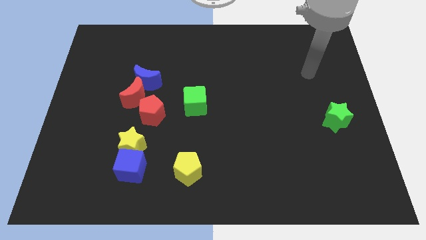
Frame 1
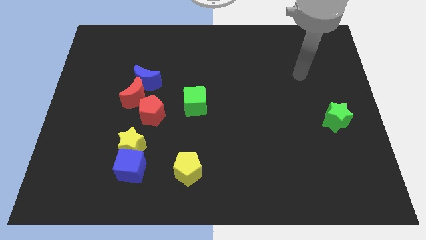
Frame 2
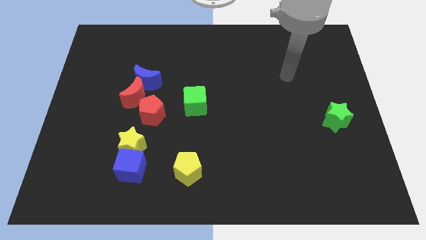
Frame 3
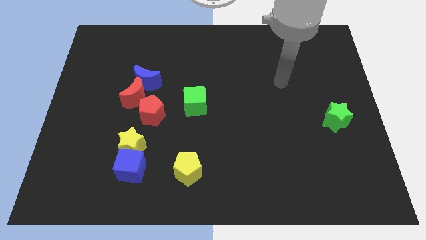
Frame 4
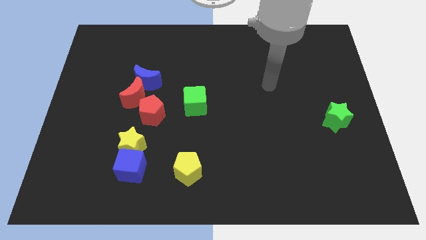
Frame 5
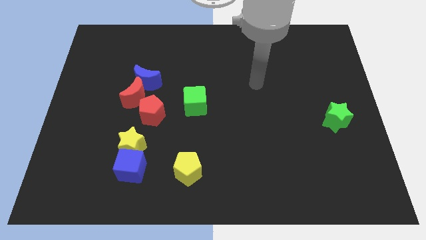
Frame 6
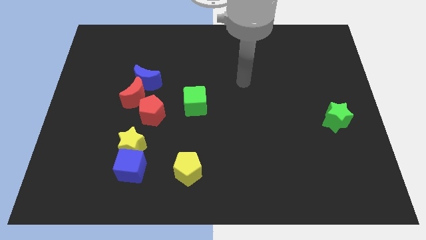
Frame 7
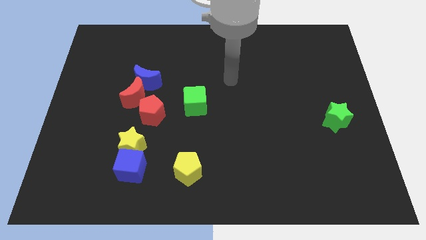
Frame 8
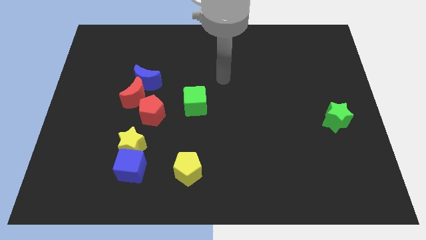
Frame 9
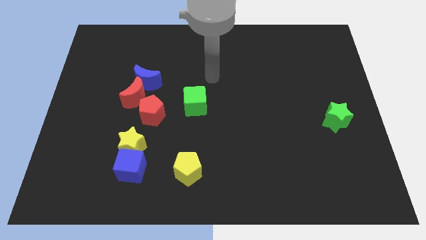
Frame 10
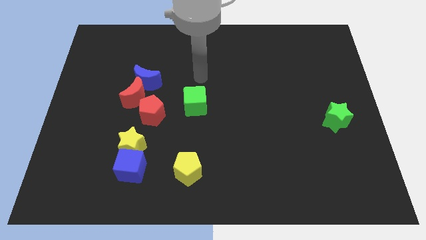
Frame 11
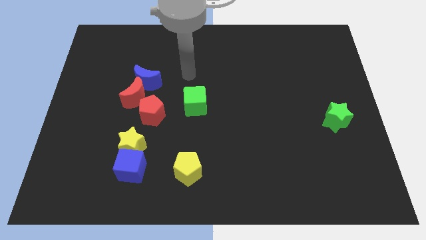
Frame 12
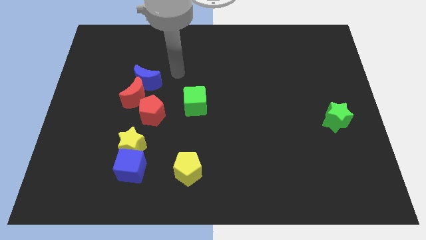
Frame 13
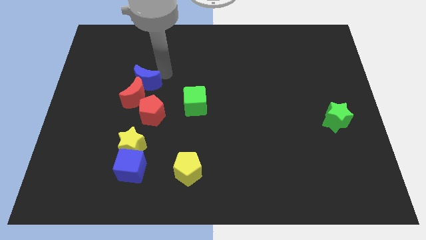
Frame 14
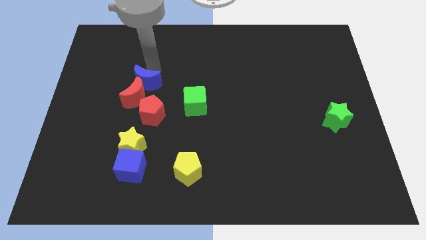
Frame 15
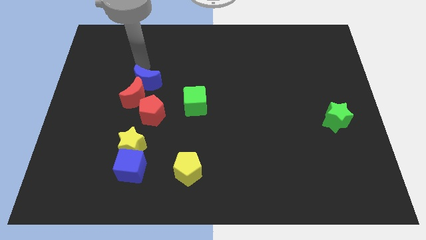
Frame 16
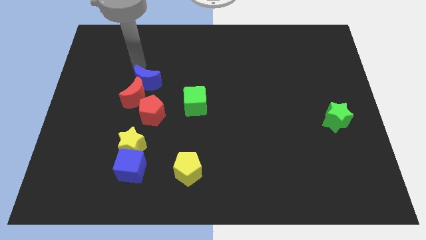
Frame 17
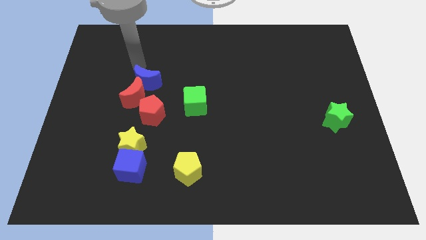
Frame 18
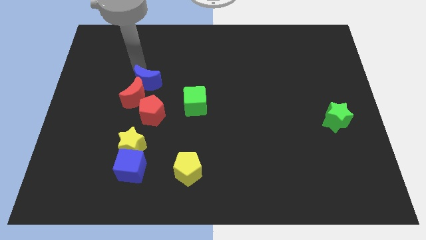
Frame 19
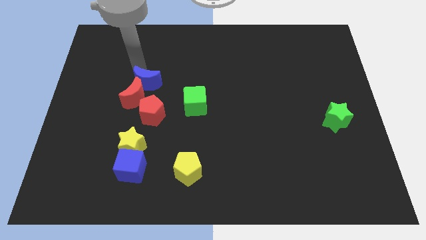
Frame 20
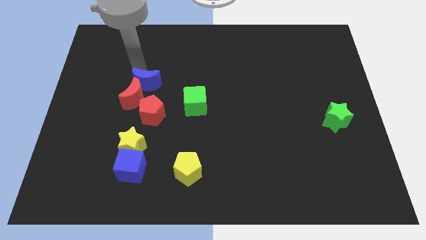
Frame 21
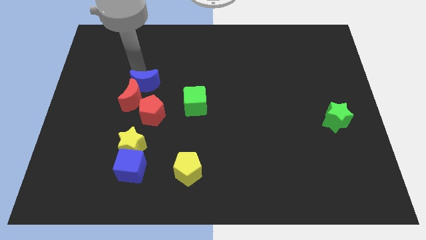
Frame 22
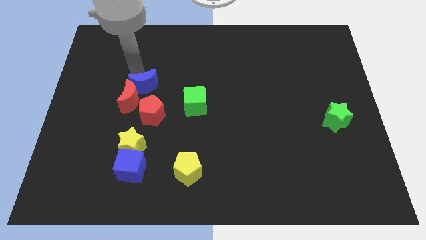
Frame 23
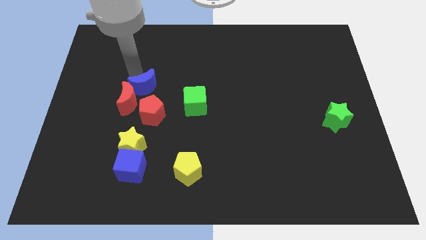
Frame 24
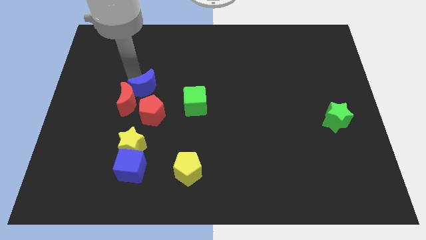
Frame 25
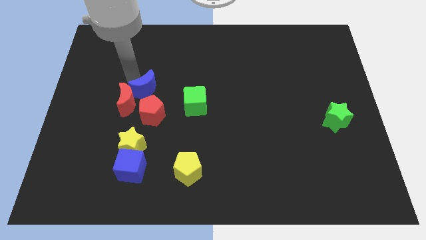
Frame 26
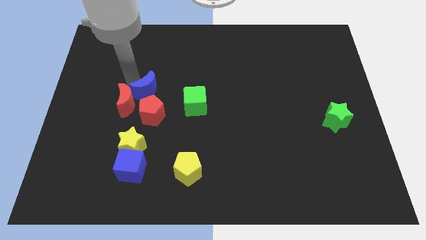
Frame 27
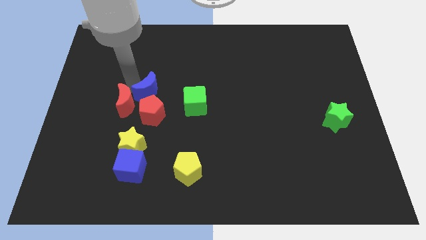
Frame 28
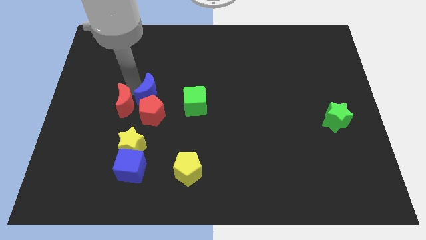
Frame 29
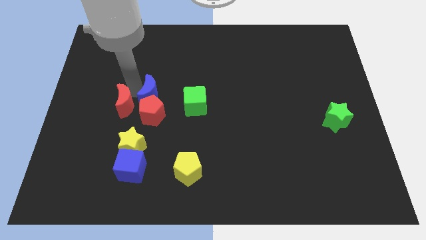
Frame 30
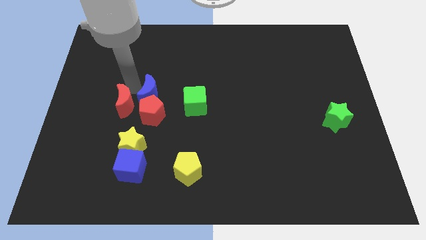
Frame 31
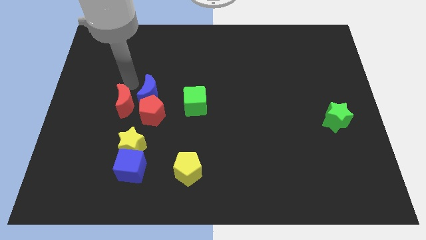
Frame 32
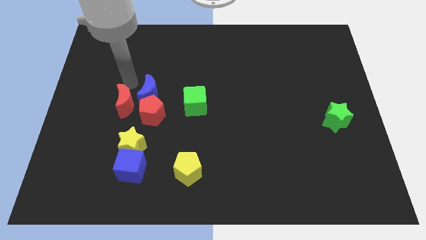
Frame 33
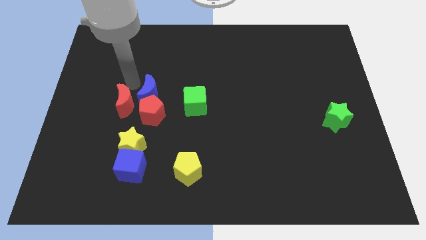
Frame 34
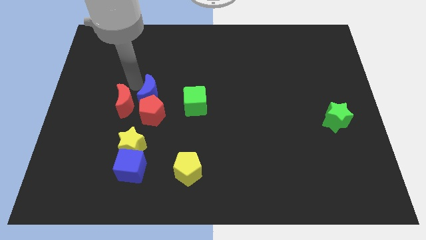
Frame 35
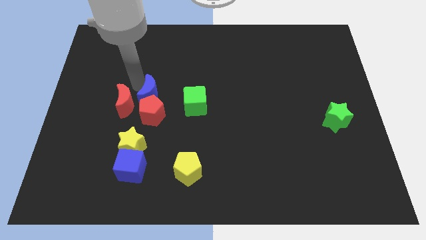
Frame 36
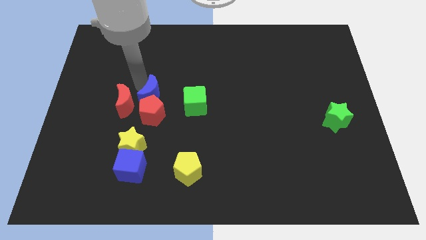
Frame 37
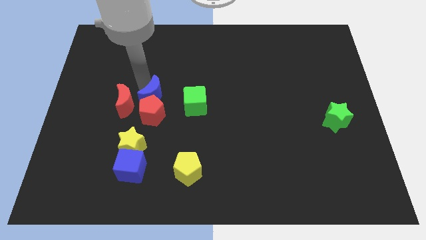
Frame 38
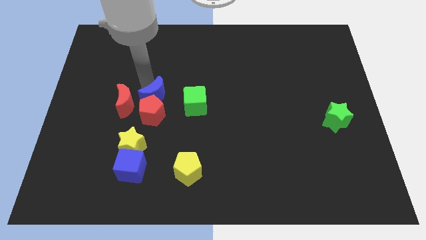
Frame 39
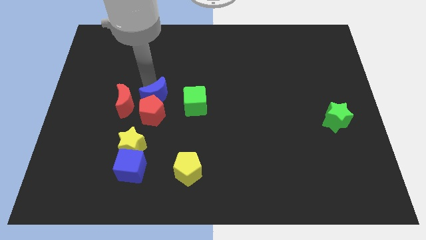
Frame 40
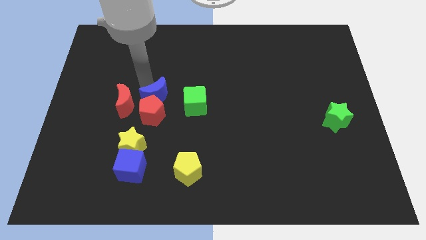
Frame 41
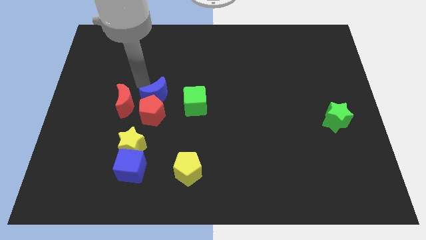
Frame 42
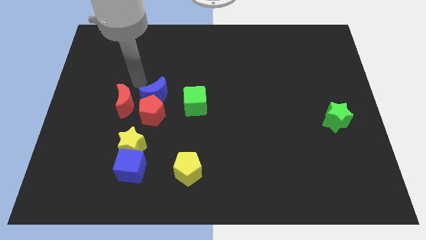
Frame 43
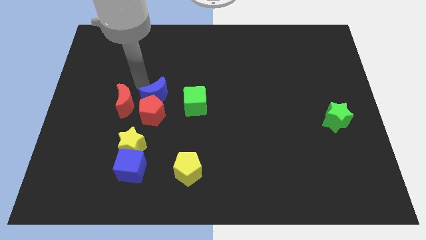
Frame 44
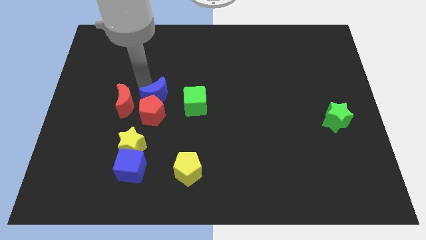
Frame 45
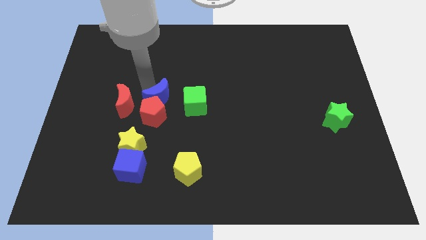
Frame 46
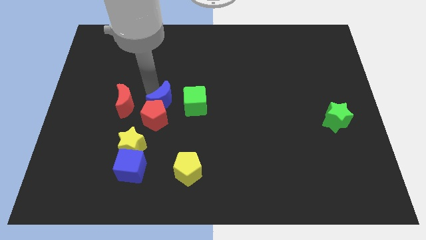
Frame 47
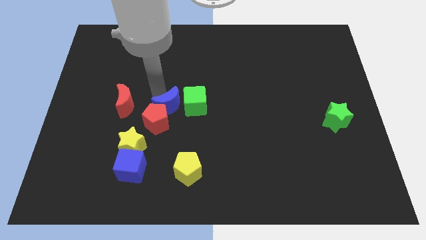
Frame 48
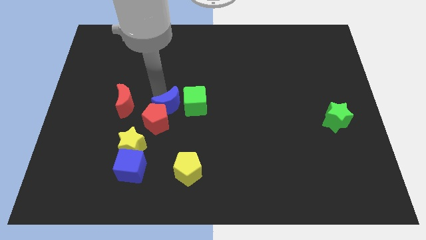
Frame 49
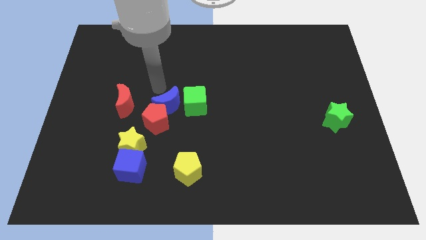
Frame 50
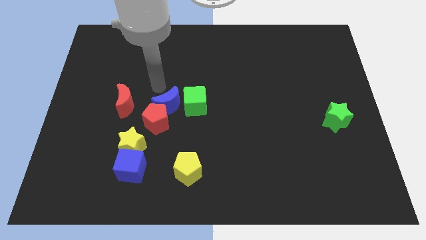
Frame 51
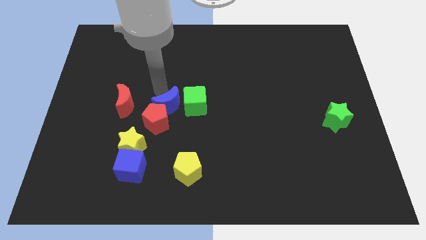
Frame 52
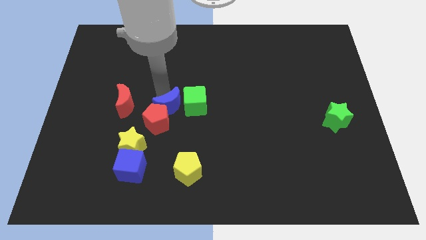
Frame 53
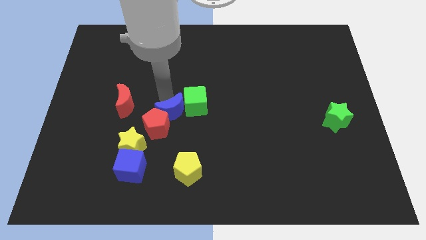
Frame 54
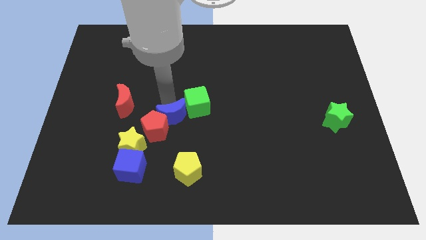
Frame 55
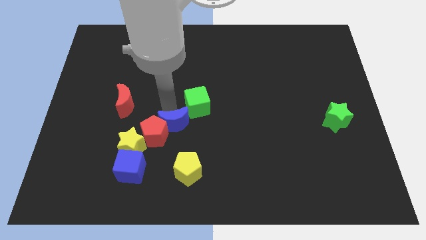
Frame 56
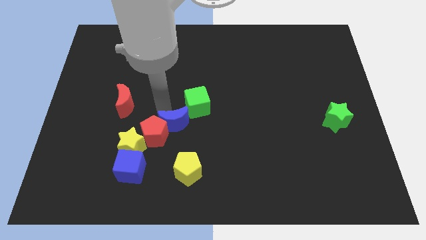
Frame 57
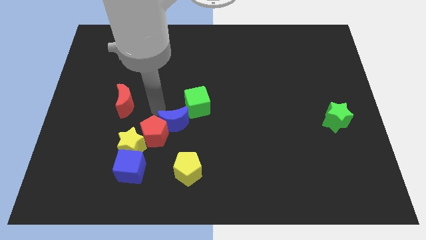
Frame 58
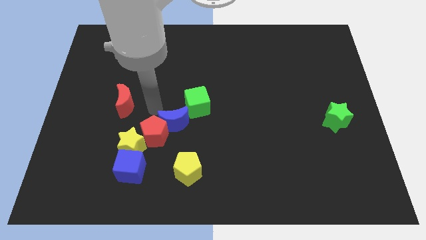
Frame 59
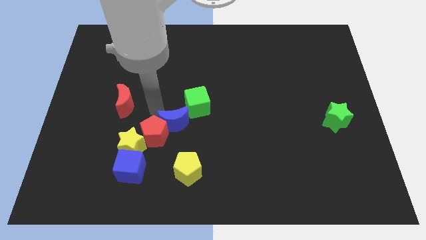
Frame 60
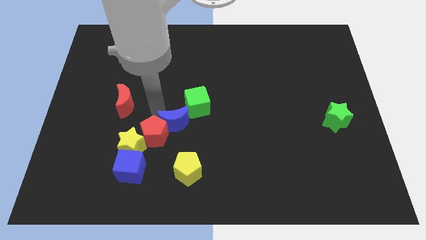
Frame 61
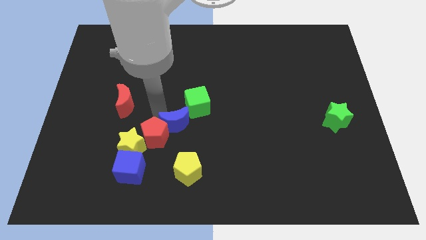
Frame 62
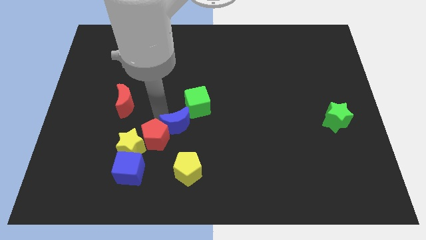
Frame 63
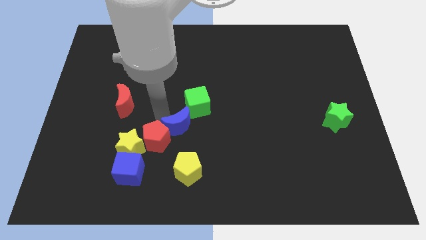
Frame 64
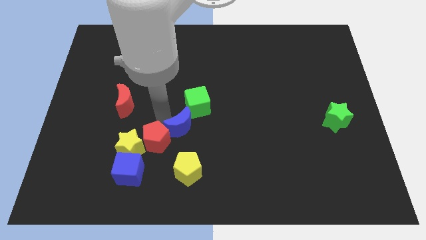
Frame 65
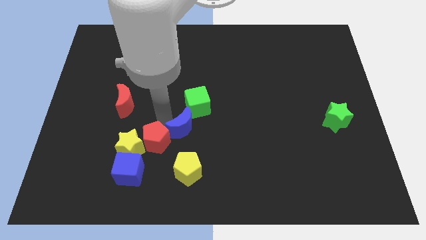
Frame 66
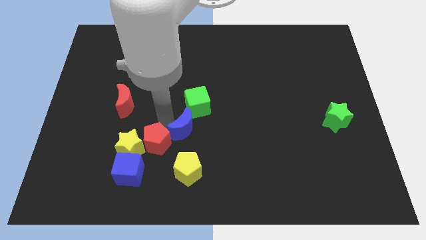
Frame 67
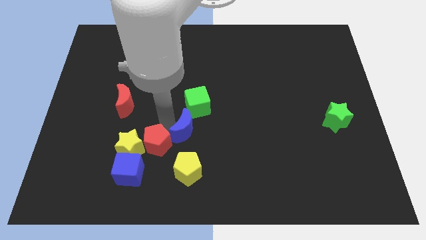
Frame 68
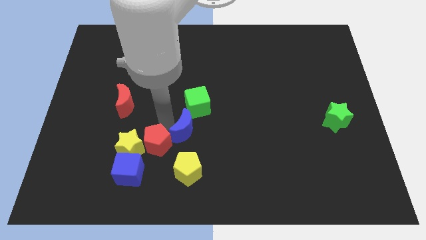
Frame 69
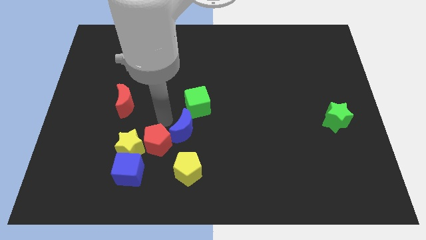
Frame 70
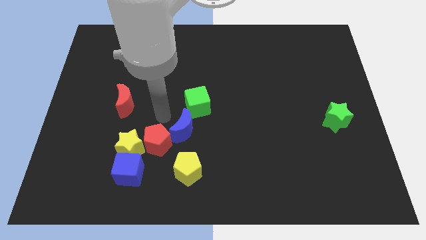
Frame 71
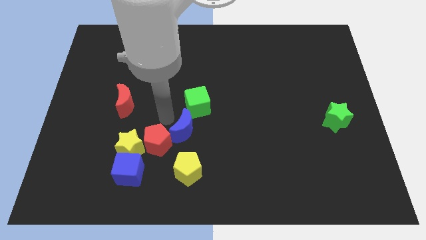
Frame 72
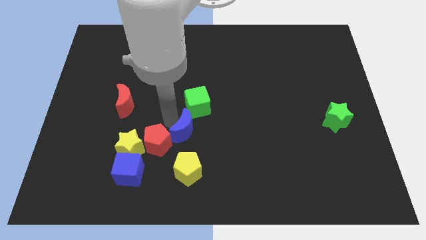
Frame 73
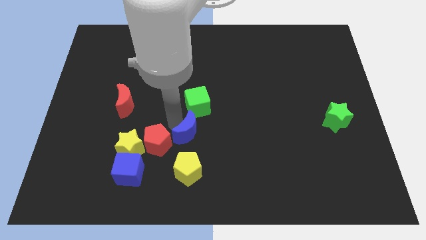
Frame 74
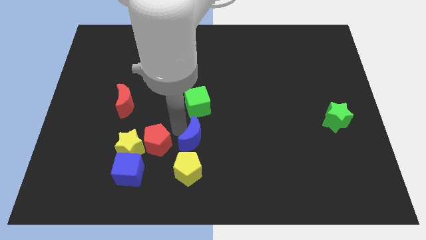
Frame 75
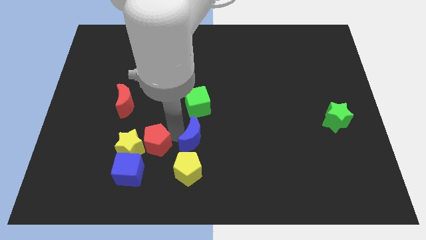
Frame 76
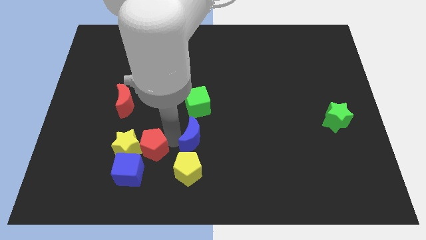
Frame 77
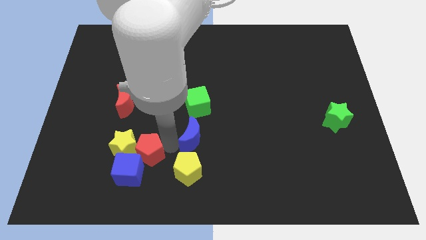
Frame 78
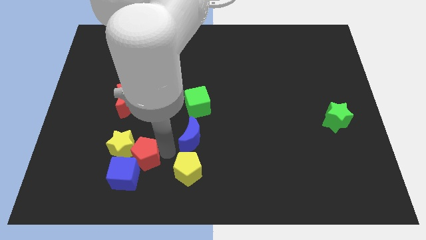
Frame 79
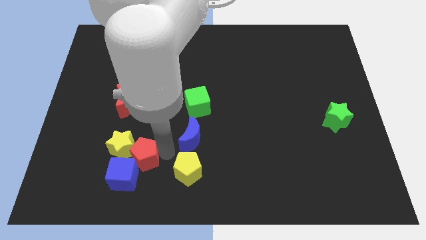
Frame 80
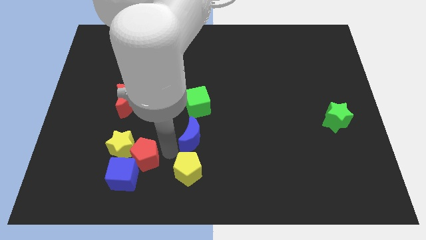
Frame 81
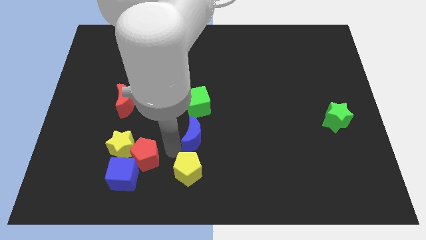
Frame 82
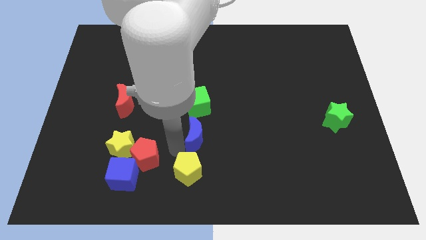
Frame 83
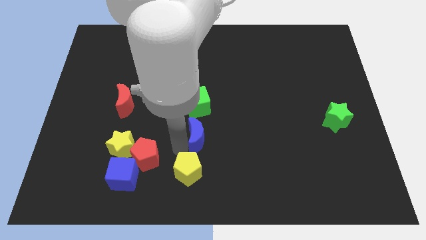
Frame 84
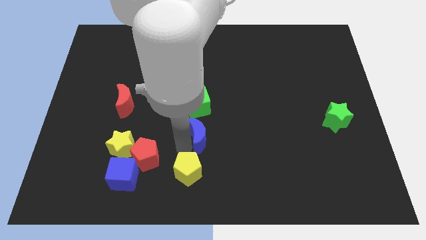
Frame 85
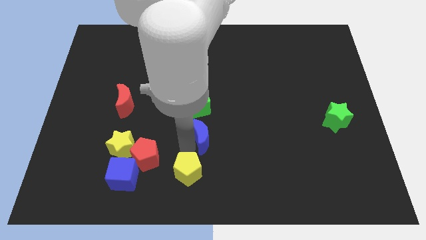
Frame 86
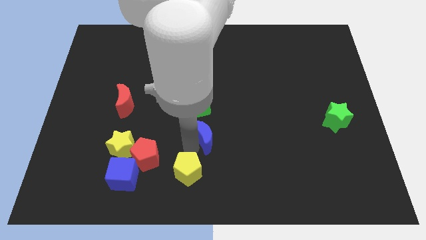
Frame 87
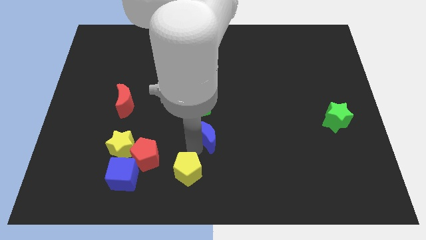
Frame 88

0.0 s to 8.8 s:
slide the blue moon diagonally down and to the right of the green cube
